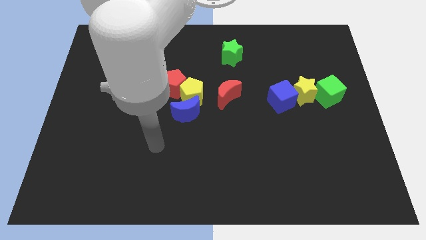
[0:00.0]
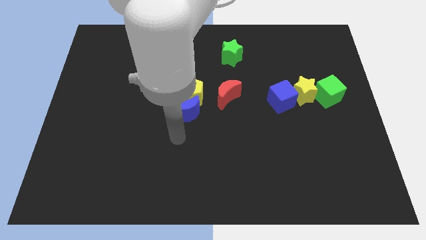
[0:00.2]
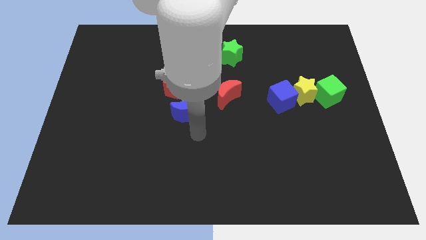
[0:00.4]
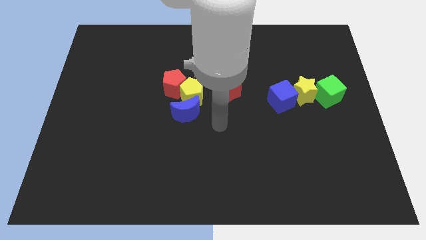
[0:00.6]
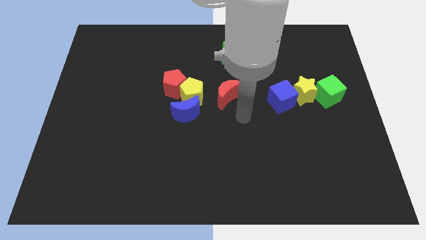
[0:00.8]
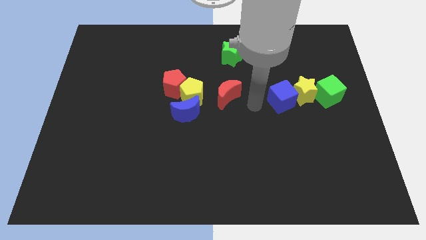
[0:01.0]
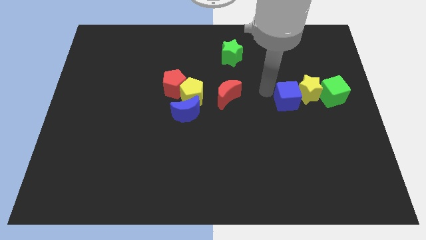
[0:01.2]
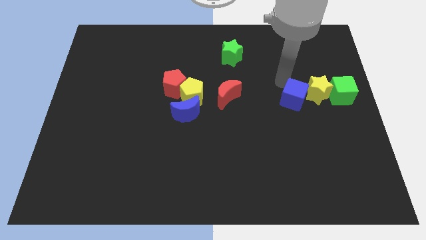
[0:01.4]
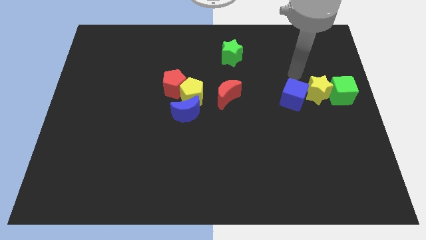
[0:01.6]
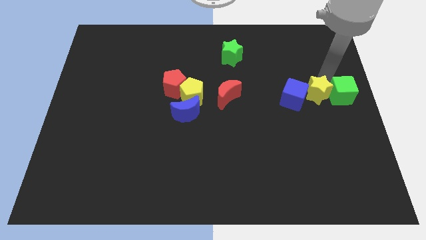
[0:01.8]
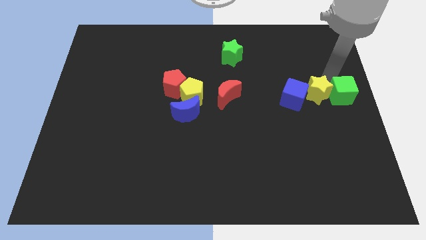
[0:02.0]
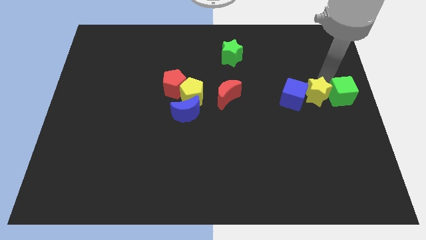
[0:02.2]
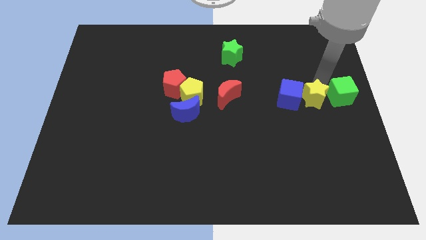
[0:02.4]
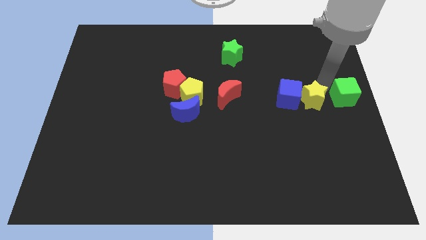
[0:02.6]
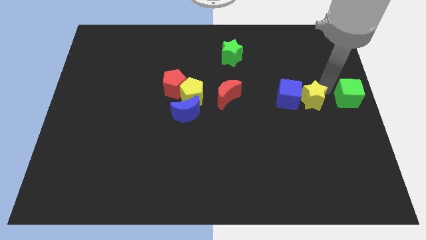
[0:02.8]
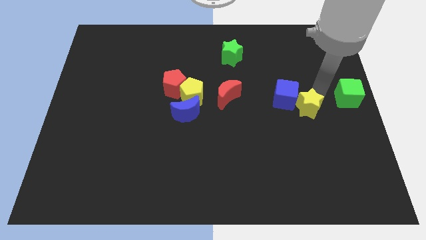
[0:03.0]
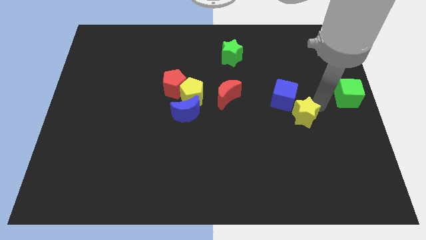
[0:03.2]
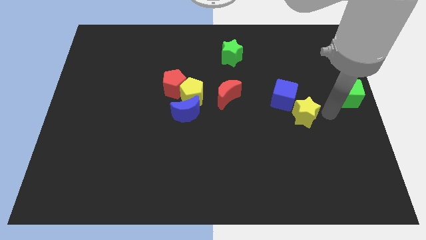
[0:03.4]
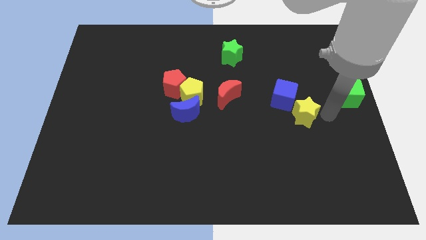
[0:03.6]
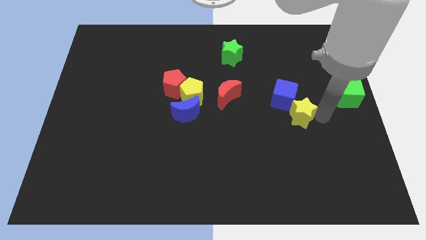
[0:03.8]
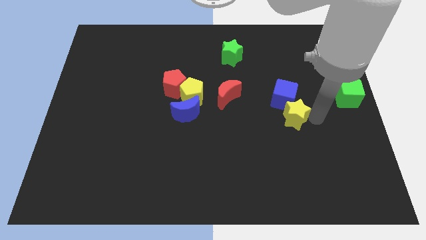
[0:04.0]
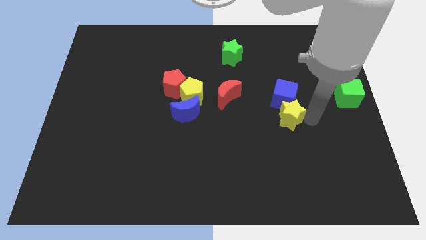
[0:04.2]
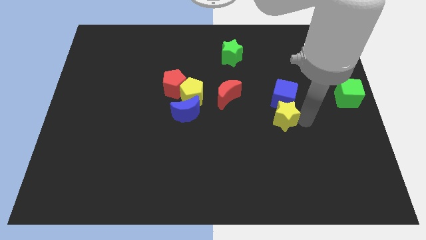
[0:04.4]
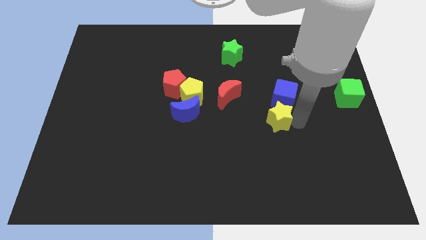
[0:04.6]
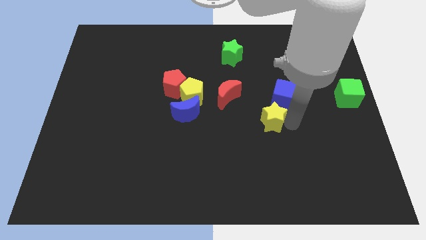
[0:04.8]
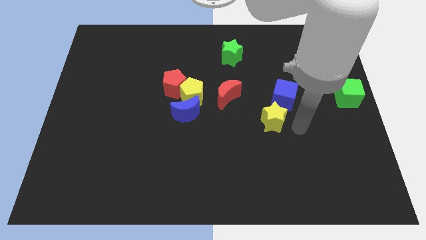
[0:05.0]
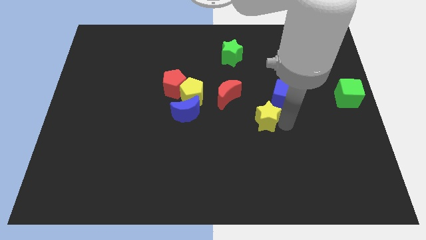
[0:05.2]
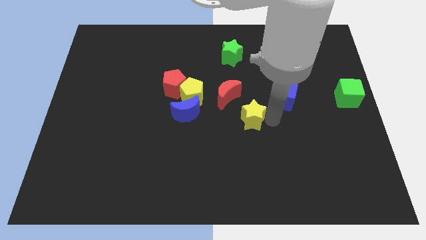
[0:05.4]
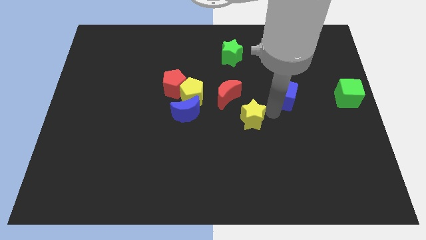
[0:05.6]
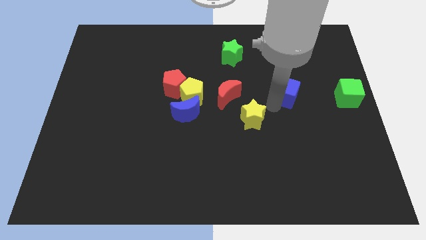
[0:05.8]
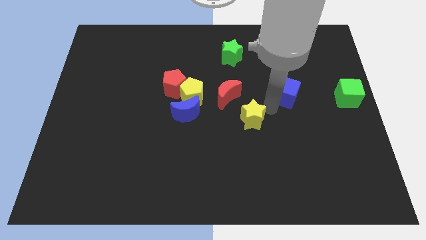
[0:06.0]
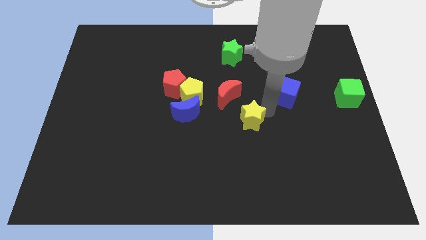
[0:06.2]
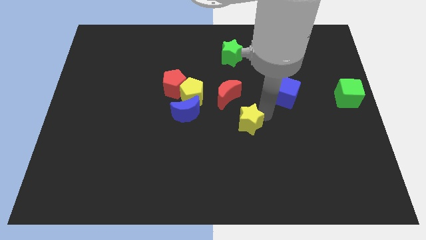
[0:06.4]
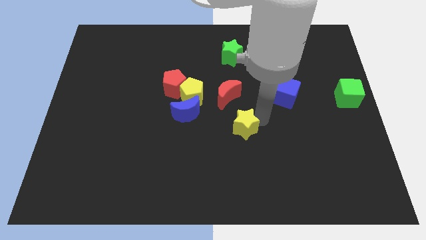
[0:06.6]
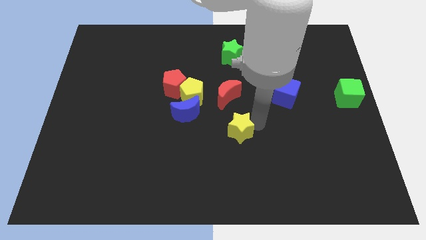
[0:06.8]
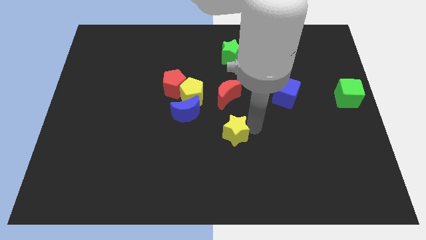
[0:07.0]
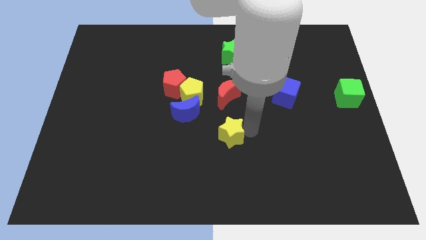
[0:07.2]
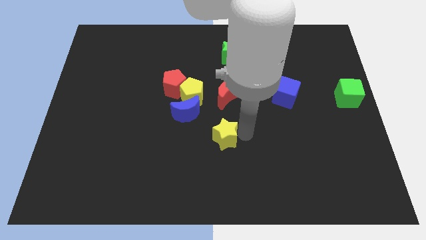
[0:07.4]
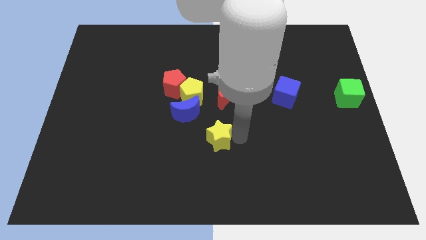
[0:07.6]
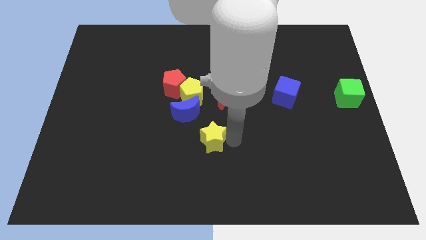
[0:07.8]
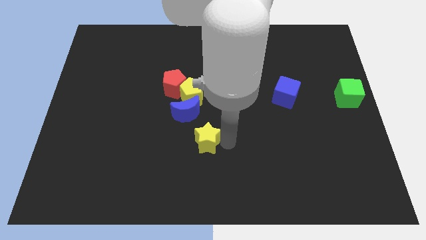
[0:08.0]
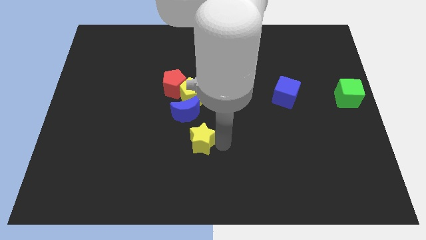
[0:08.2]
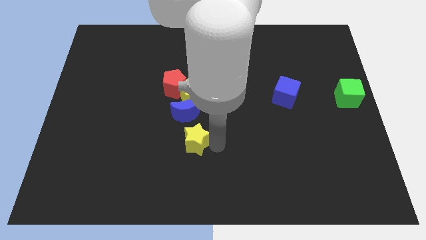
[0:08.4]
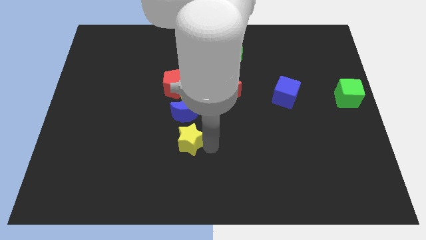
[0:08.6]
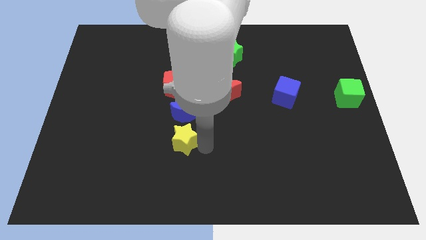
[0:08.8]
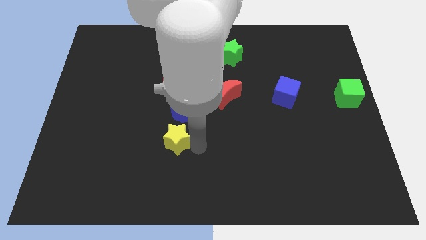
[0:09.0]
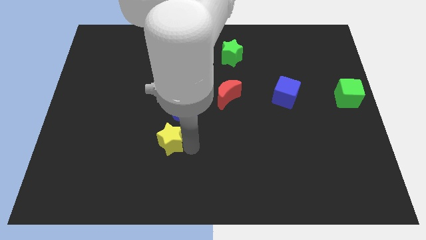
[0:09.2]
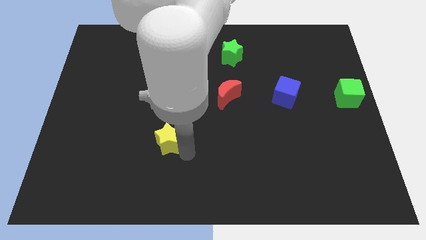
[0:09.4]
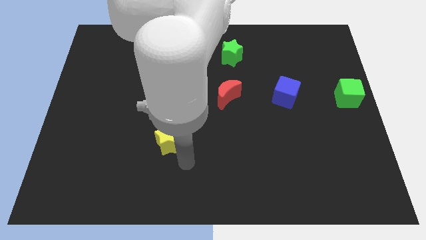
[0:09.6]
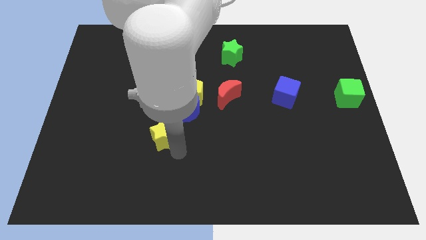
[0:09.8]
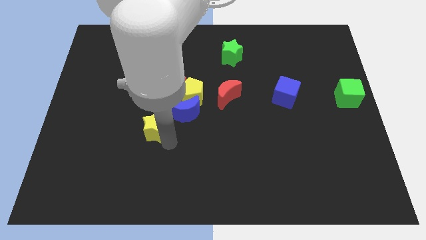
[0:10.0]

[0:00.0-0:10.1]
push the yellow star to the left side of the blue moon

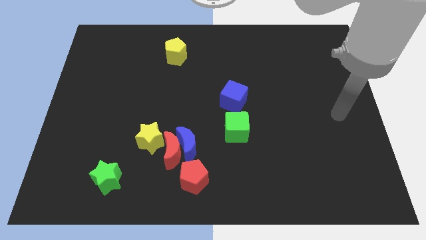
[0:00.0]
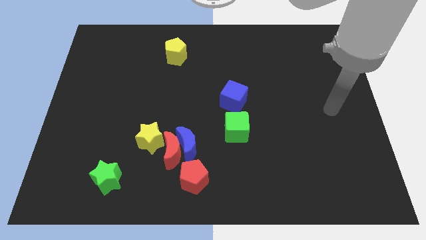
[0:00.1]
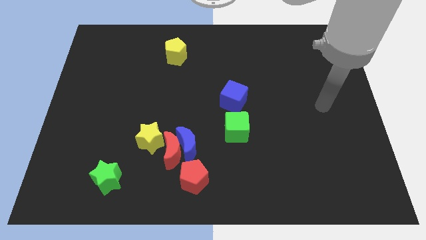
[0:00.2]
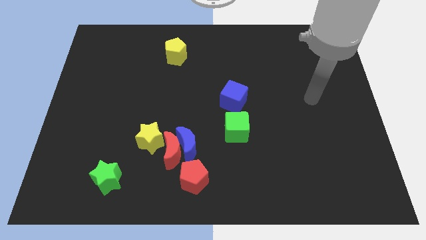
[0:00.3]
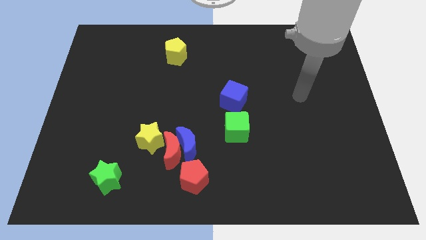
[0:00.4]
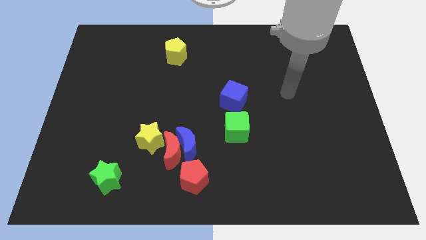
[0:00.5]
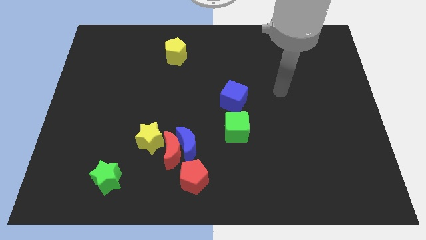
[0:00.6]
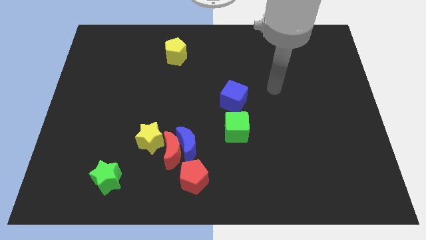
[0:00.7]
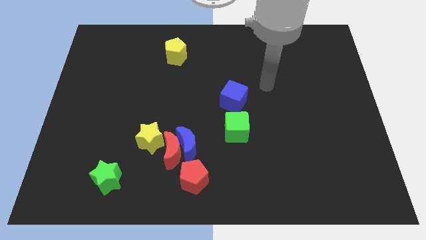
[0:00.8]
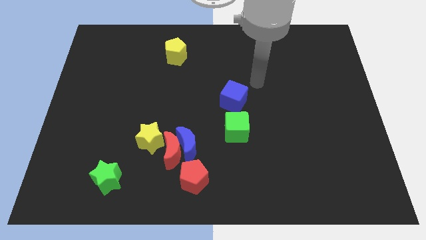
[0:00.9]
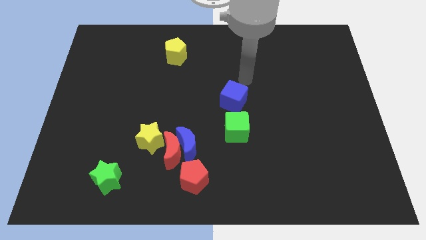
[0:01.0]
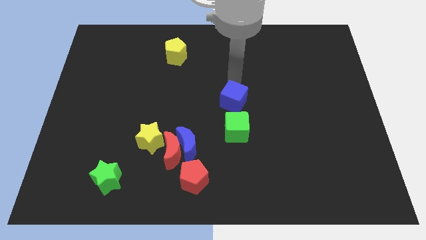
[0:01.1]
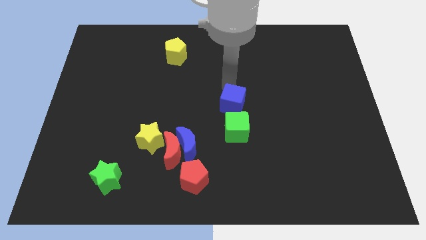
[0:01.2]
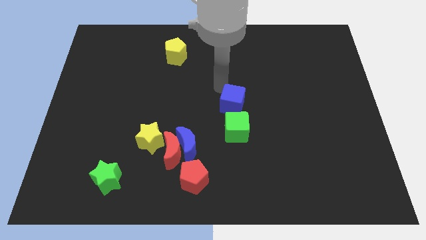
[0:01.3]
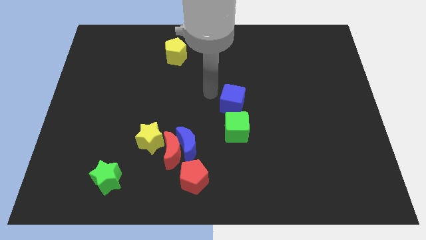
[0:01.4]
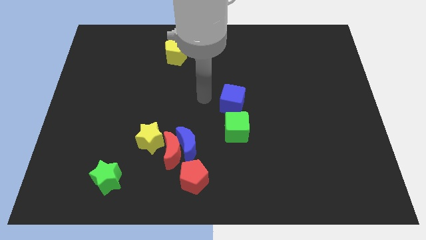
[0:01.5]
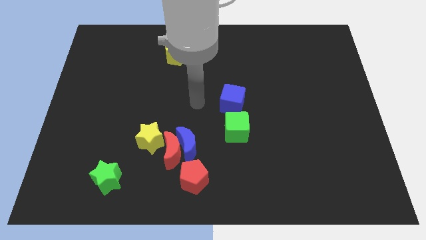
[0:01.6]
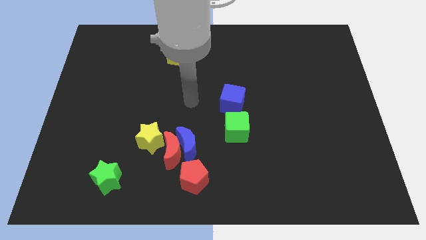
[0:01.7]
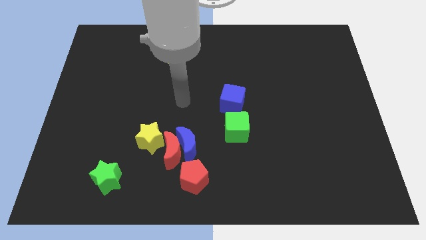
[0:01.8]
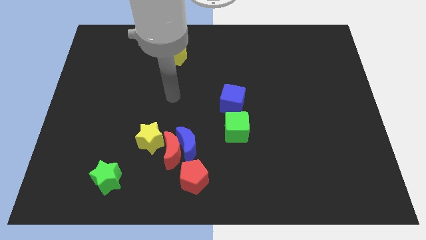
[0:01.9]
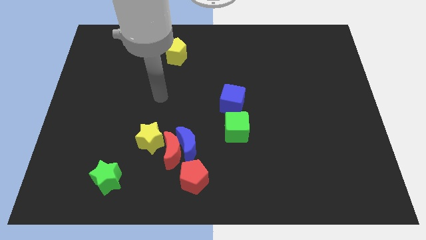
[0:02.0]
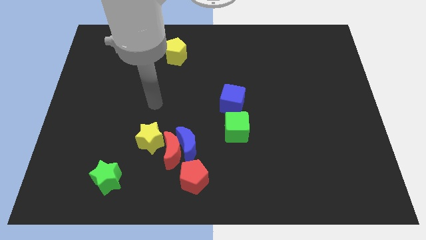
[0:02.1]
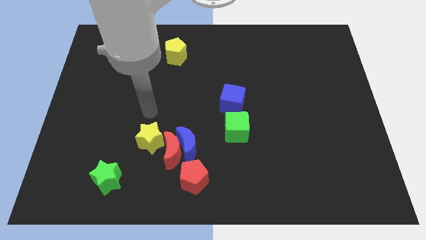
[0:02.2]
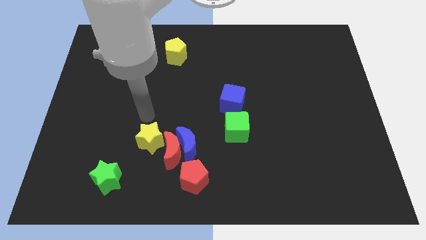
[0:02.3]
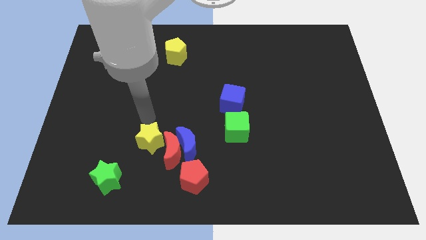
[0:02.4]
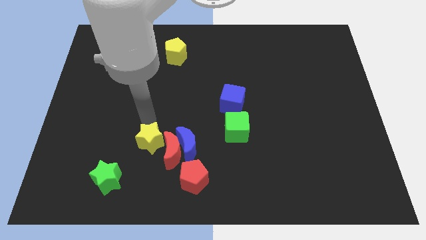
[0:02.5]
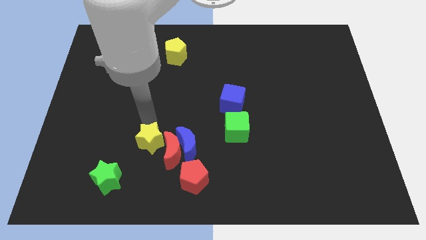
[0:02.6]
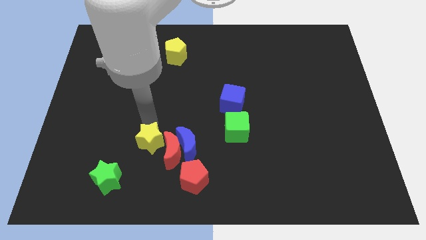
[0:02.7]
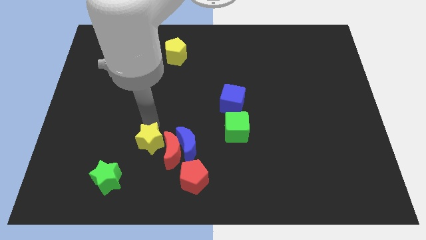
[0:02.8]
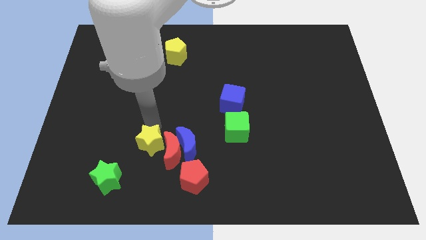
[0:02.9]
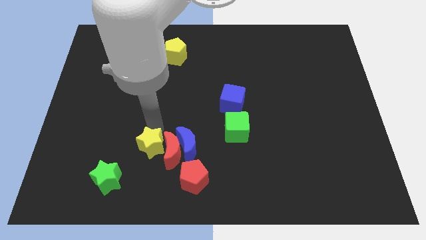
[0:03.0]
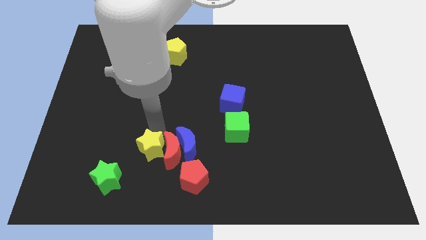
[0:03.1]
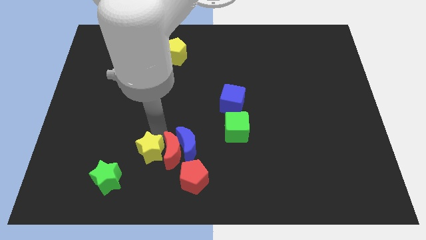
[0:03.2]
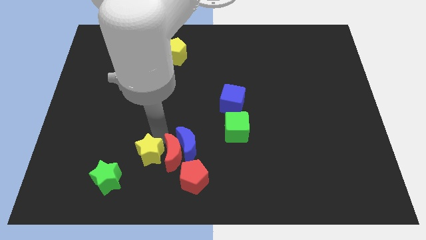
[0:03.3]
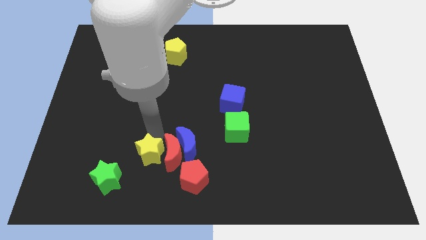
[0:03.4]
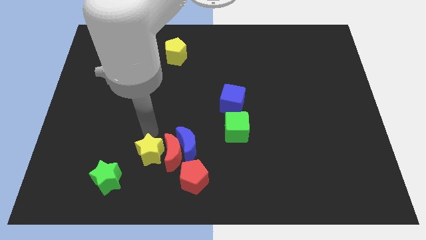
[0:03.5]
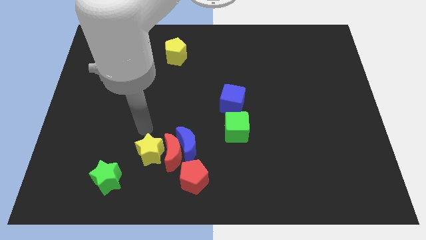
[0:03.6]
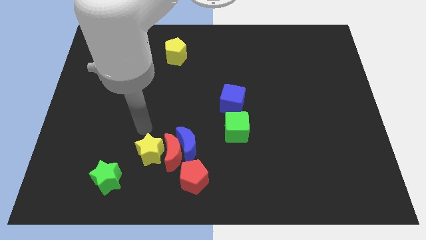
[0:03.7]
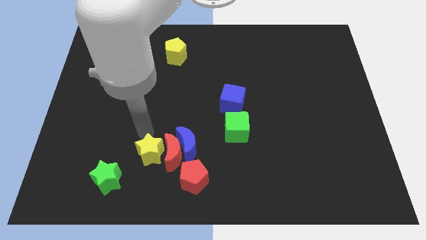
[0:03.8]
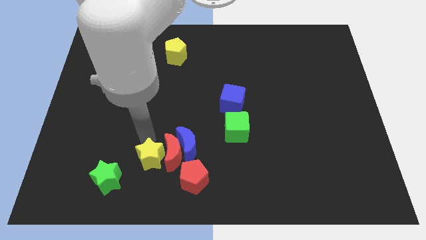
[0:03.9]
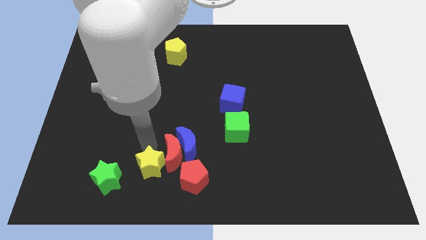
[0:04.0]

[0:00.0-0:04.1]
move the yellow star just right of the green star
